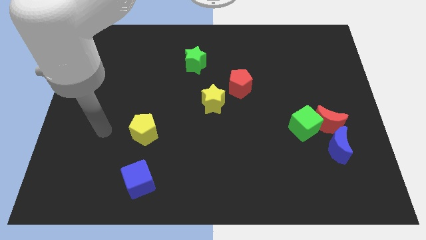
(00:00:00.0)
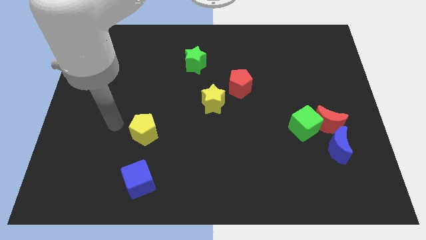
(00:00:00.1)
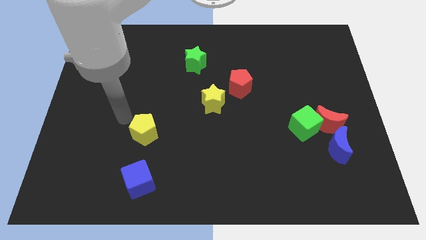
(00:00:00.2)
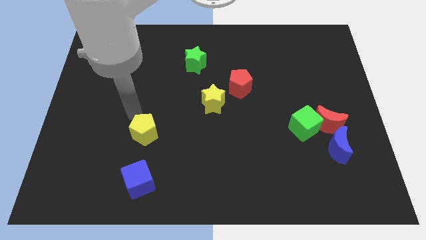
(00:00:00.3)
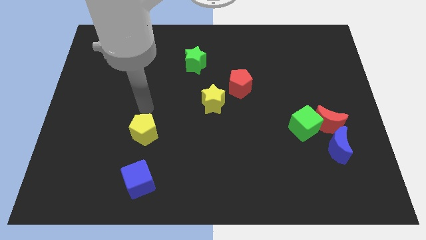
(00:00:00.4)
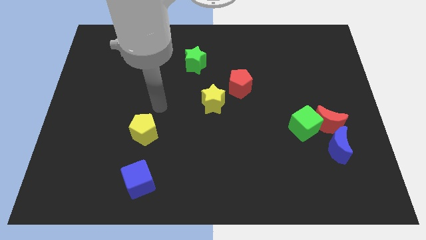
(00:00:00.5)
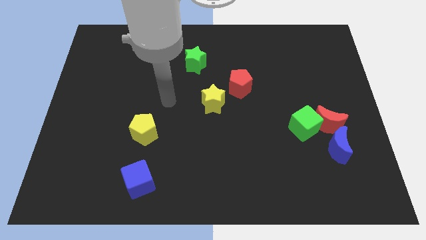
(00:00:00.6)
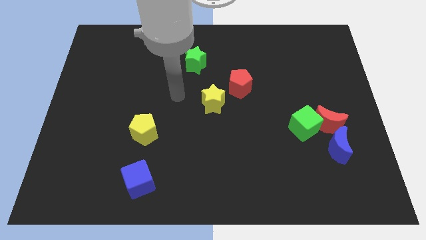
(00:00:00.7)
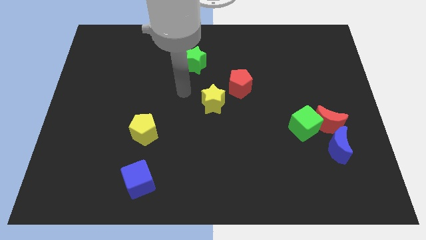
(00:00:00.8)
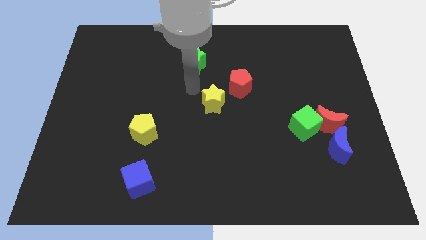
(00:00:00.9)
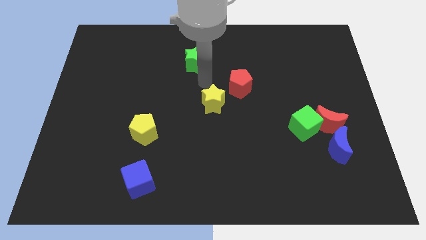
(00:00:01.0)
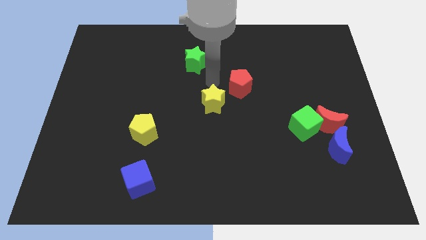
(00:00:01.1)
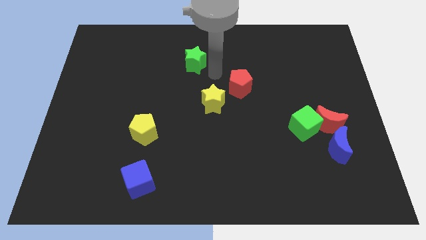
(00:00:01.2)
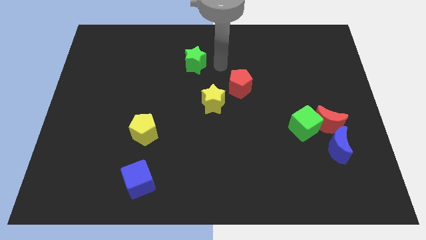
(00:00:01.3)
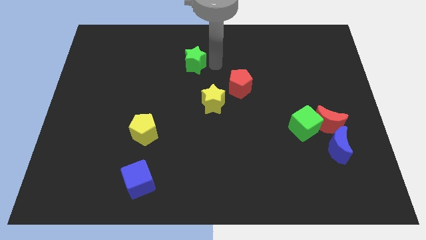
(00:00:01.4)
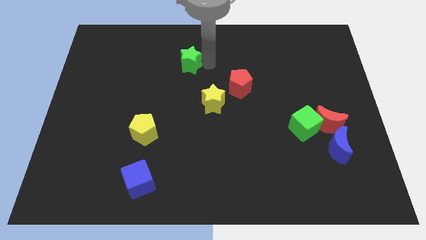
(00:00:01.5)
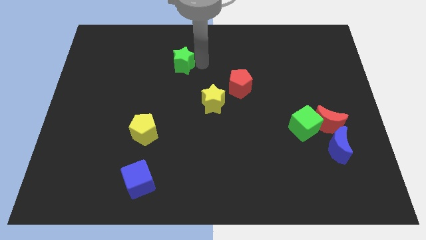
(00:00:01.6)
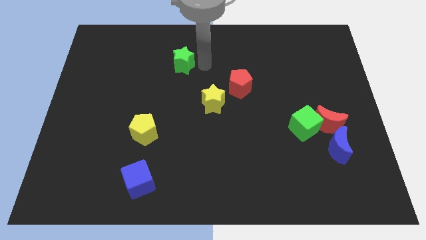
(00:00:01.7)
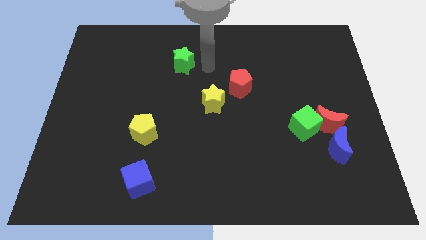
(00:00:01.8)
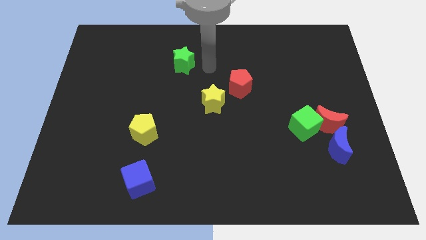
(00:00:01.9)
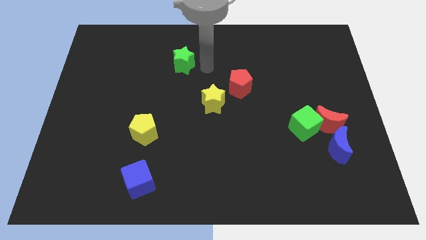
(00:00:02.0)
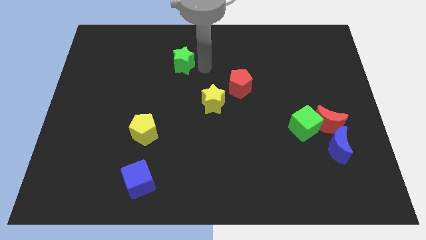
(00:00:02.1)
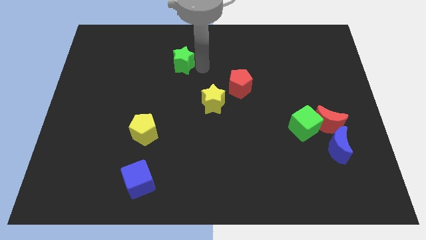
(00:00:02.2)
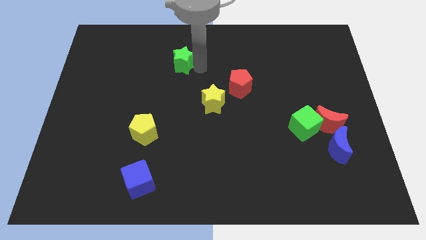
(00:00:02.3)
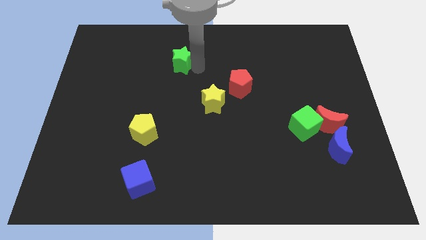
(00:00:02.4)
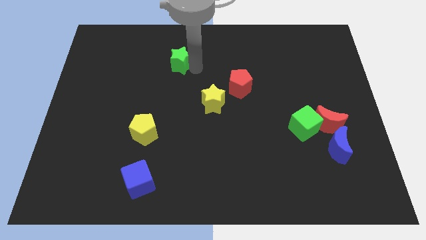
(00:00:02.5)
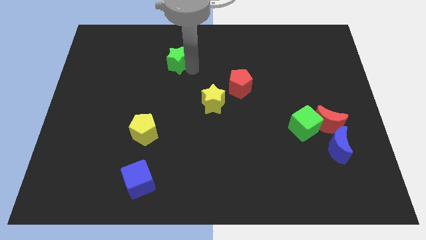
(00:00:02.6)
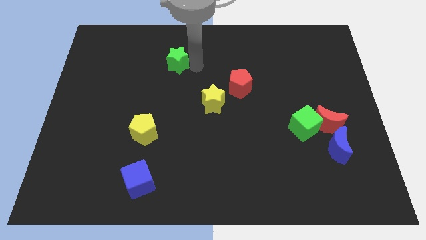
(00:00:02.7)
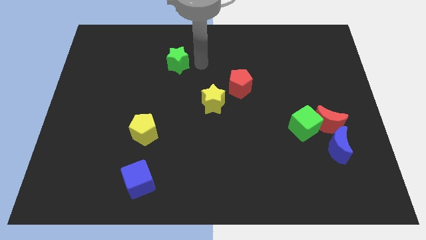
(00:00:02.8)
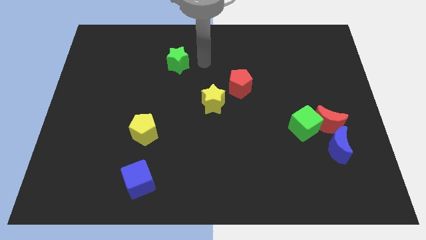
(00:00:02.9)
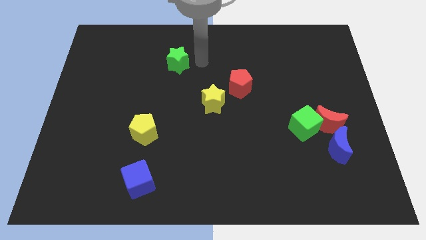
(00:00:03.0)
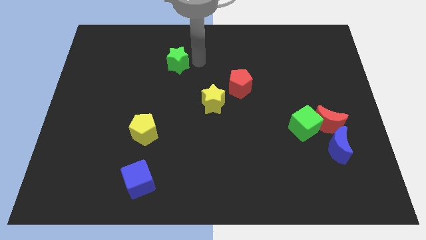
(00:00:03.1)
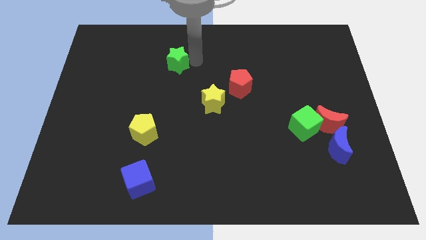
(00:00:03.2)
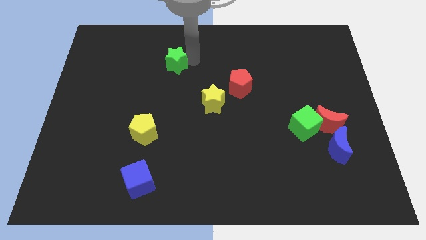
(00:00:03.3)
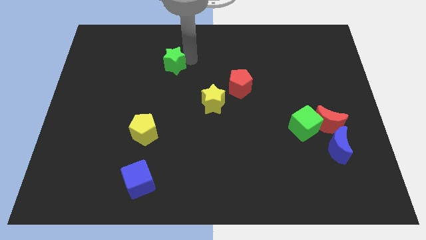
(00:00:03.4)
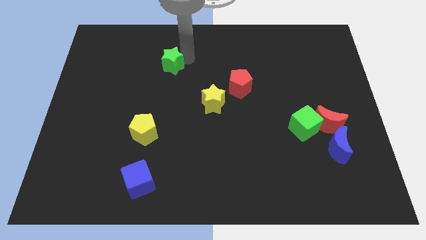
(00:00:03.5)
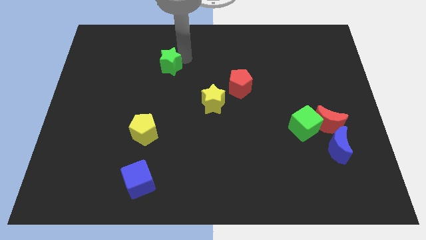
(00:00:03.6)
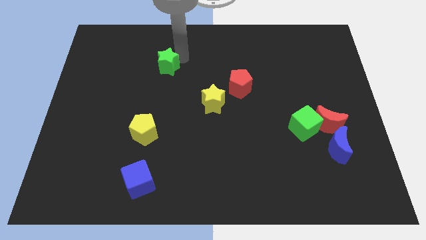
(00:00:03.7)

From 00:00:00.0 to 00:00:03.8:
move the green star left a little

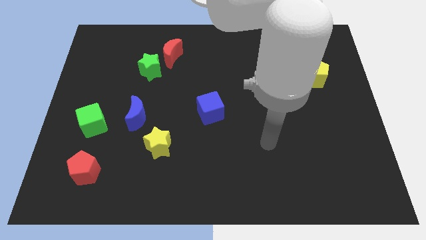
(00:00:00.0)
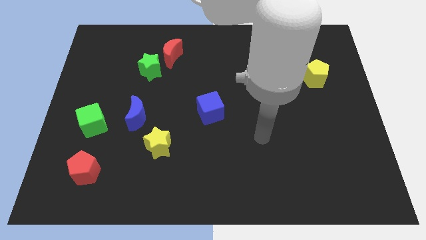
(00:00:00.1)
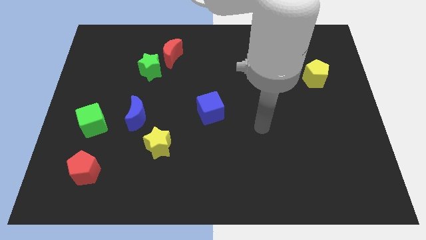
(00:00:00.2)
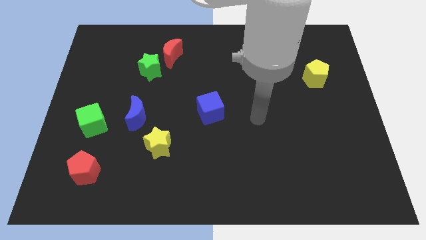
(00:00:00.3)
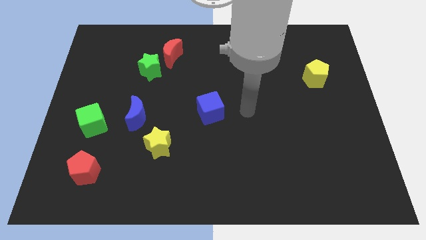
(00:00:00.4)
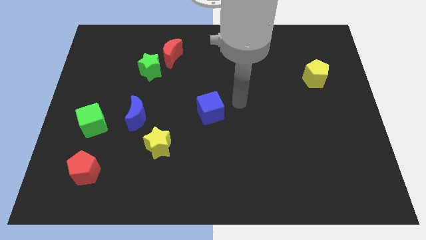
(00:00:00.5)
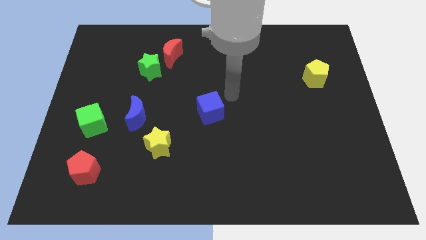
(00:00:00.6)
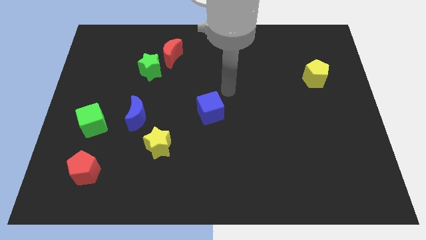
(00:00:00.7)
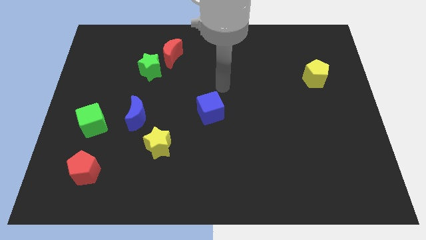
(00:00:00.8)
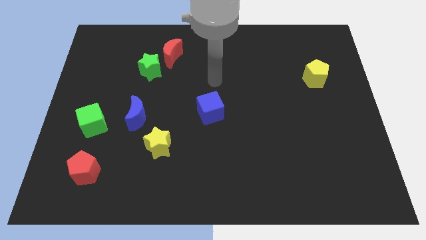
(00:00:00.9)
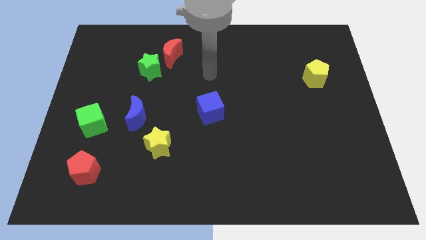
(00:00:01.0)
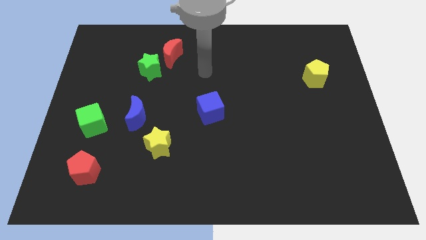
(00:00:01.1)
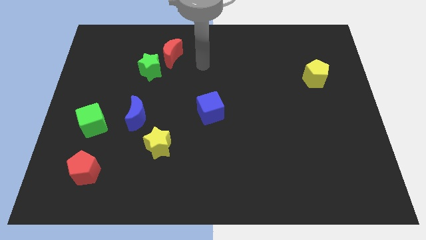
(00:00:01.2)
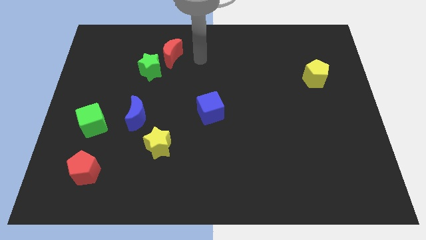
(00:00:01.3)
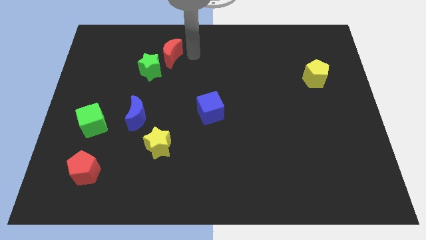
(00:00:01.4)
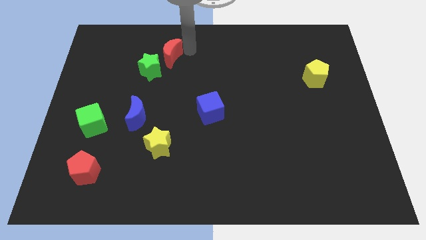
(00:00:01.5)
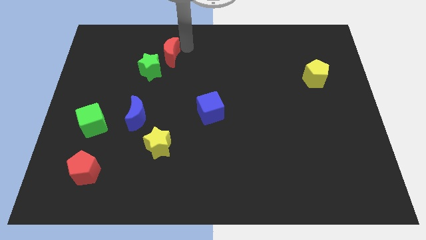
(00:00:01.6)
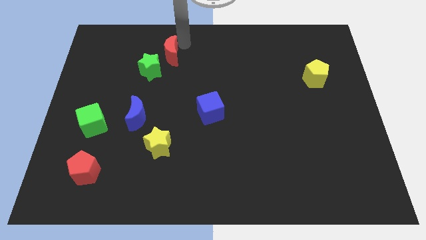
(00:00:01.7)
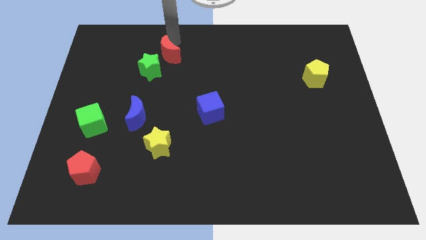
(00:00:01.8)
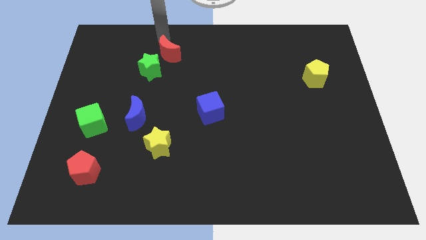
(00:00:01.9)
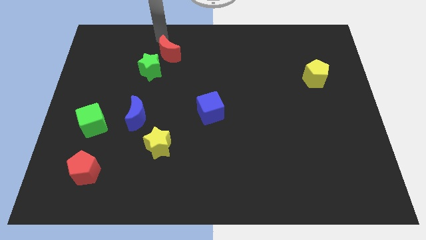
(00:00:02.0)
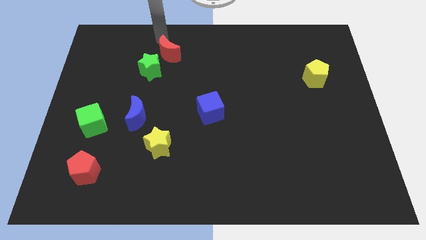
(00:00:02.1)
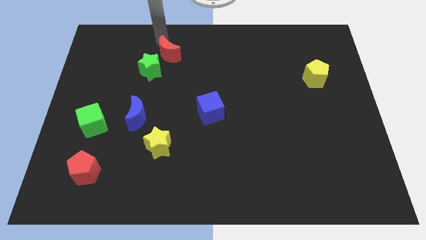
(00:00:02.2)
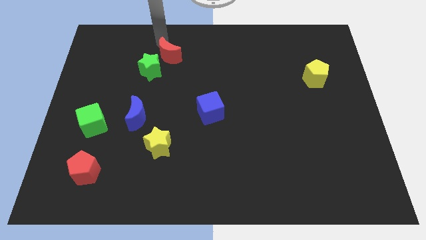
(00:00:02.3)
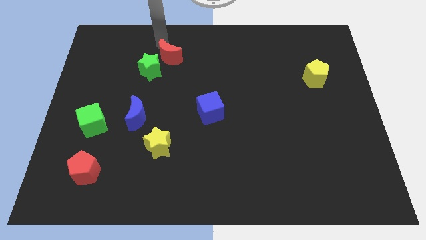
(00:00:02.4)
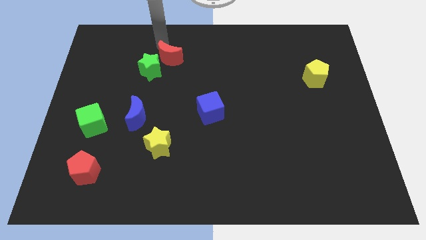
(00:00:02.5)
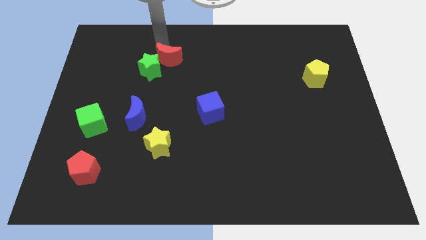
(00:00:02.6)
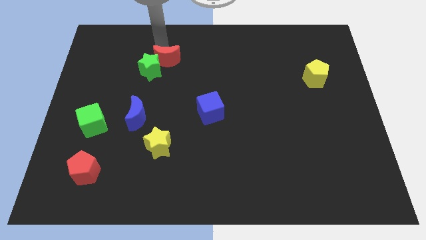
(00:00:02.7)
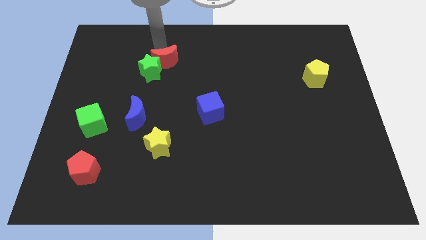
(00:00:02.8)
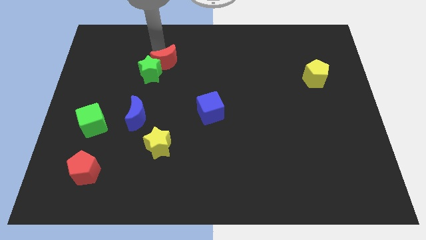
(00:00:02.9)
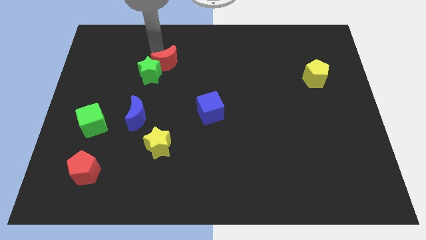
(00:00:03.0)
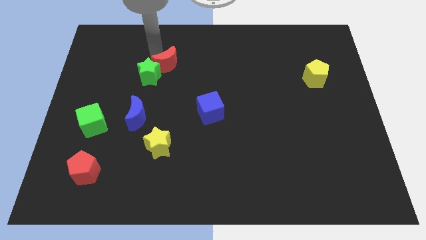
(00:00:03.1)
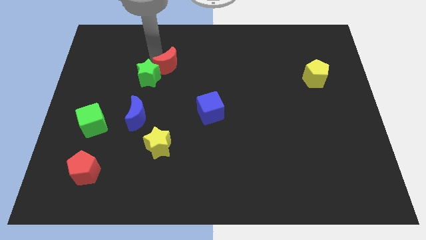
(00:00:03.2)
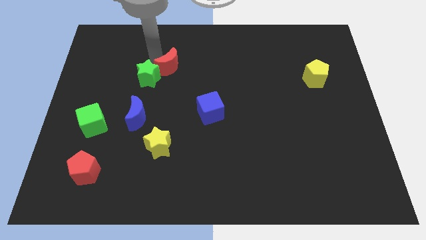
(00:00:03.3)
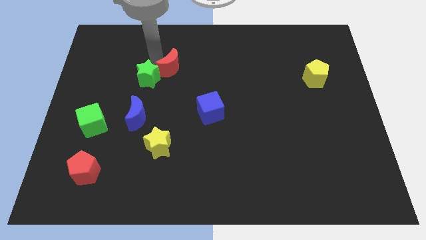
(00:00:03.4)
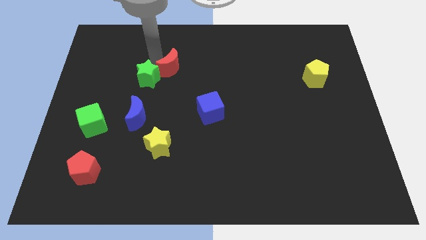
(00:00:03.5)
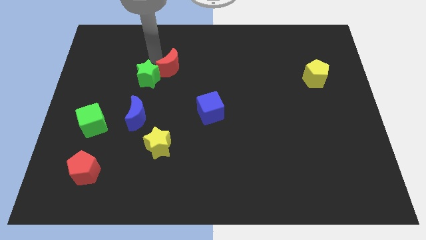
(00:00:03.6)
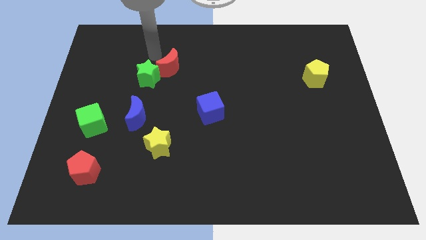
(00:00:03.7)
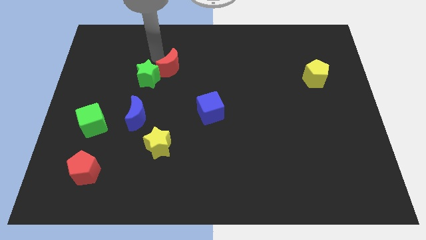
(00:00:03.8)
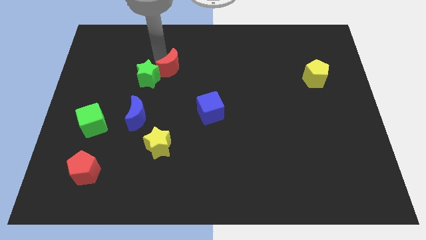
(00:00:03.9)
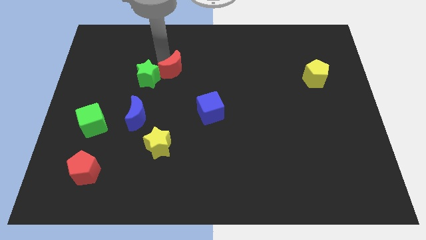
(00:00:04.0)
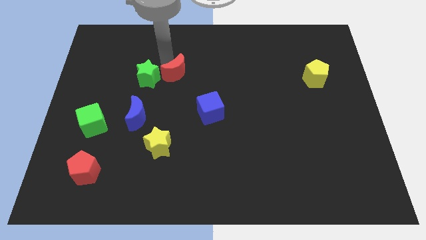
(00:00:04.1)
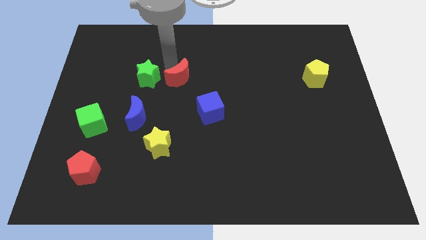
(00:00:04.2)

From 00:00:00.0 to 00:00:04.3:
slide the red moon a little down and then to the right
